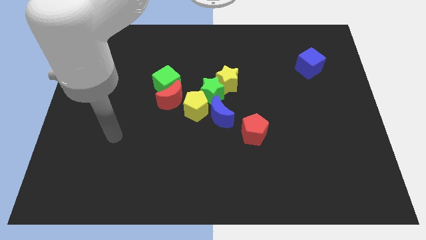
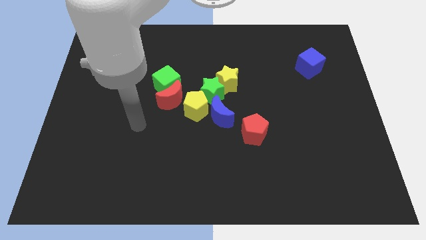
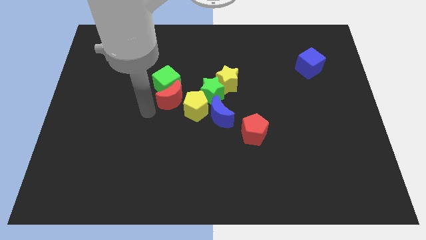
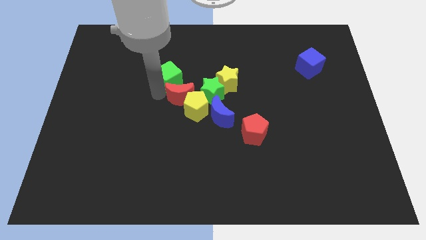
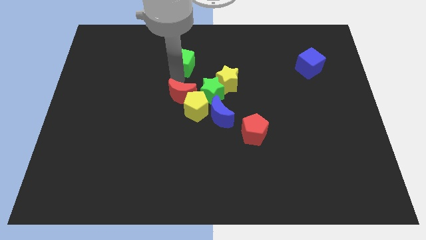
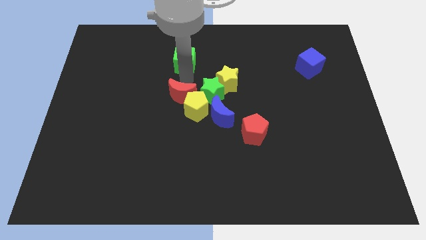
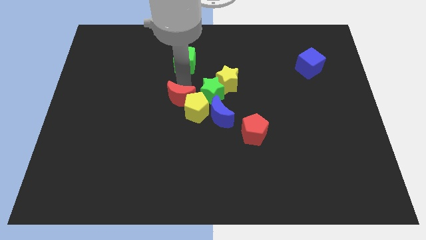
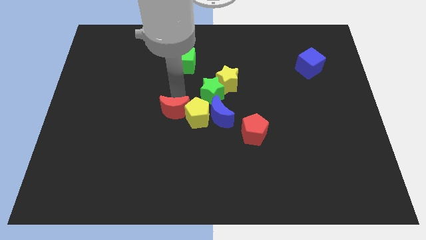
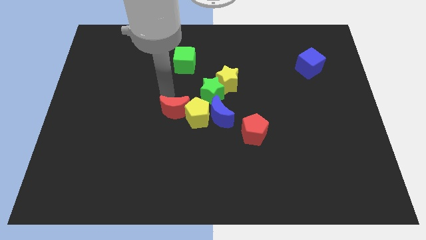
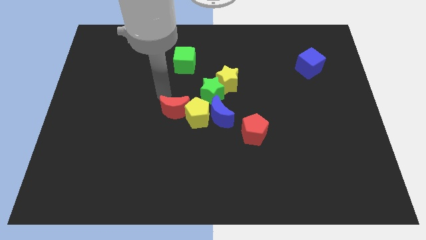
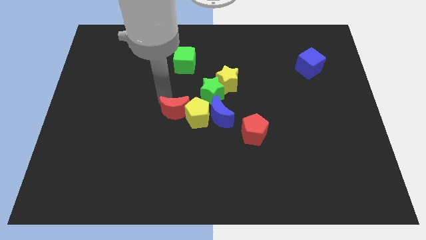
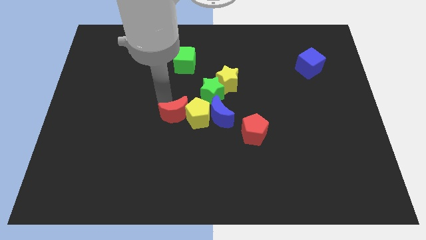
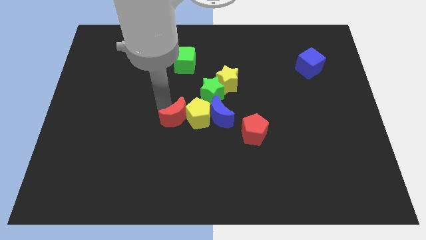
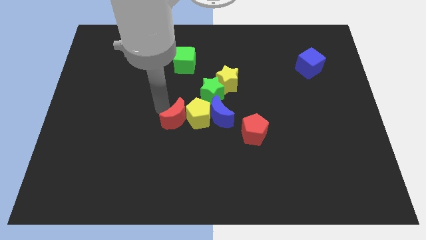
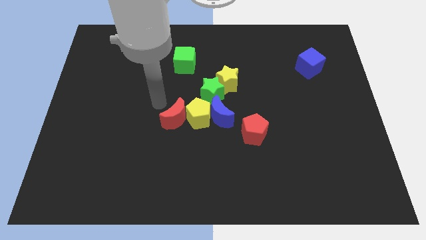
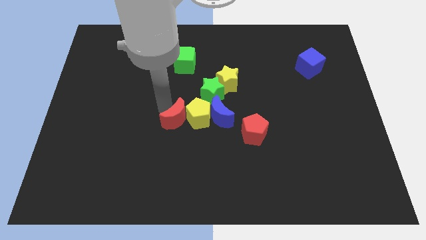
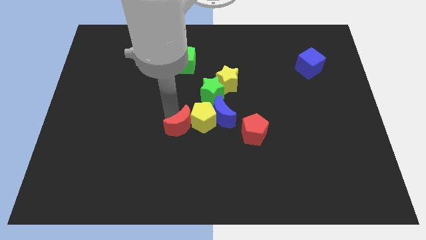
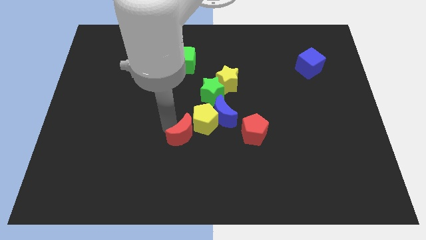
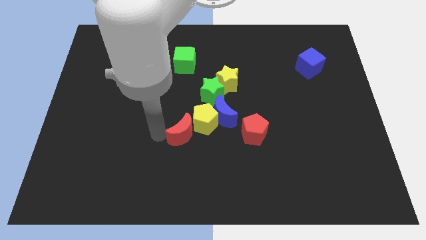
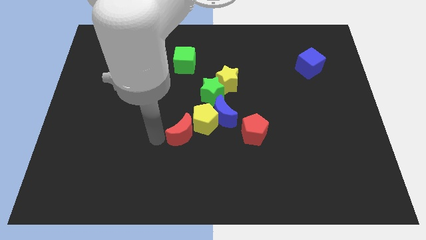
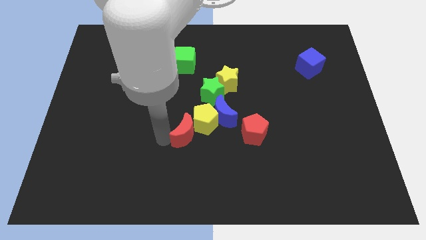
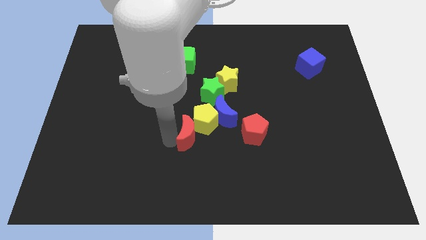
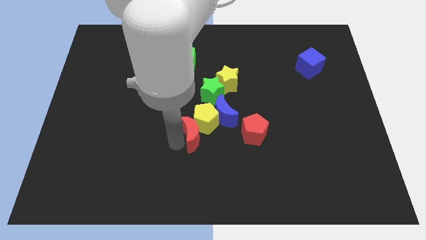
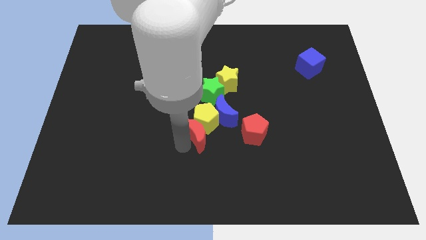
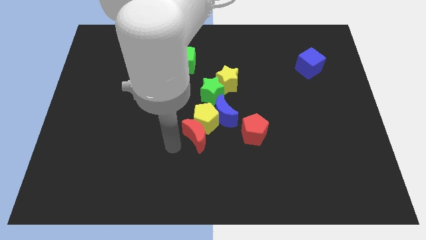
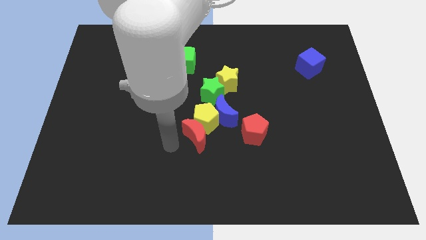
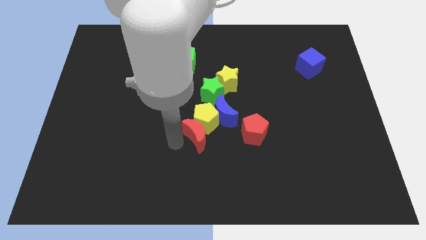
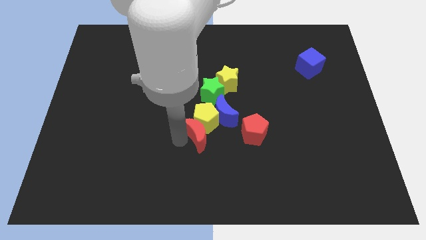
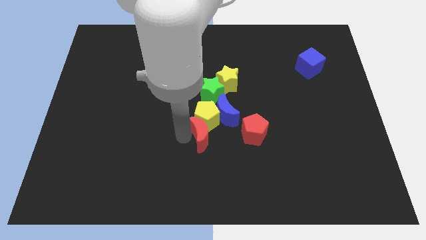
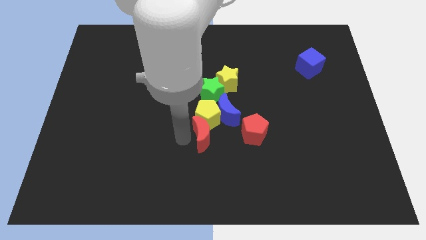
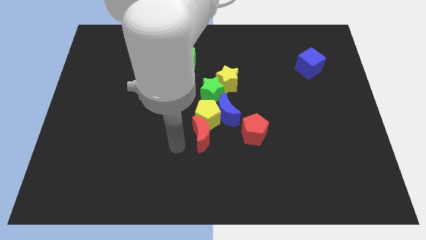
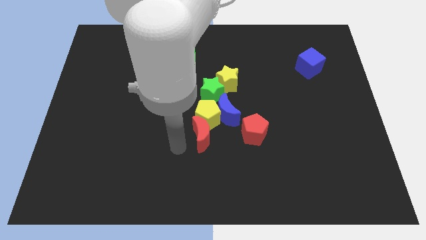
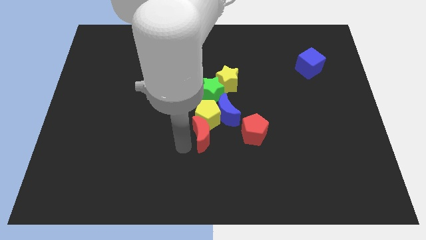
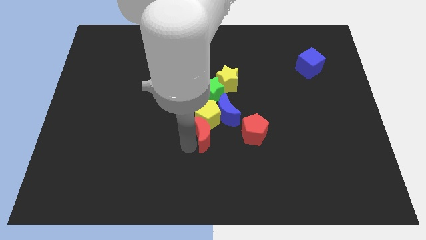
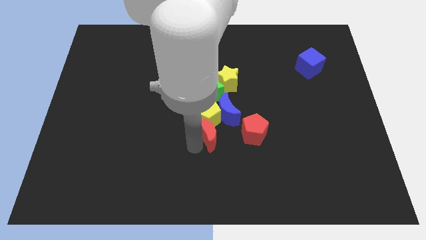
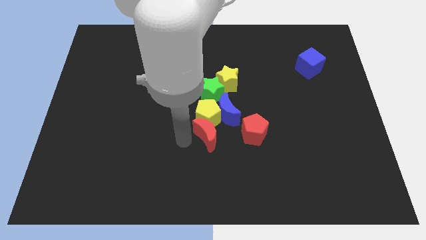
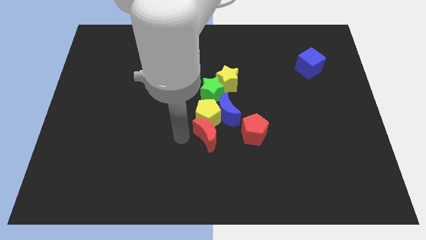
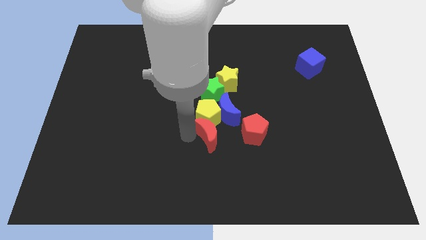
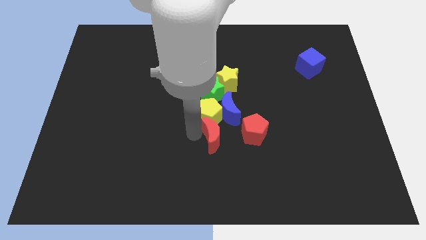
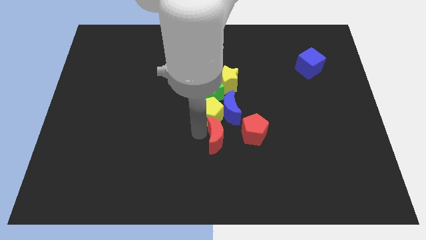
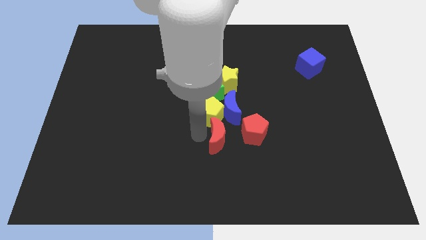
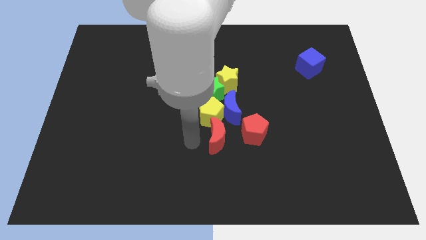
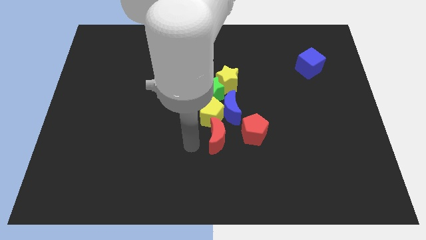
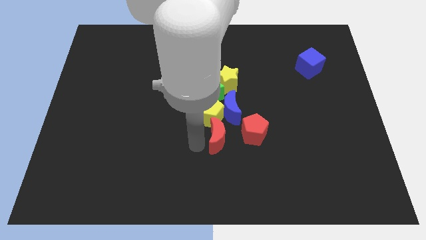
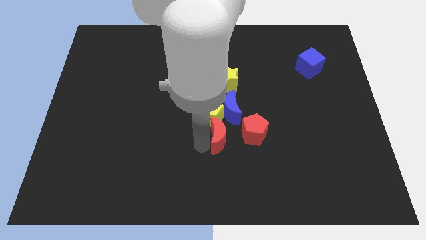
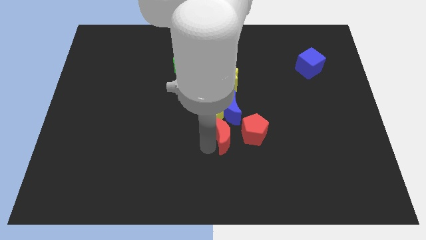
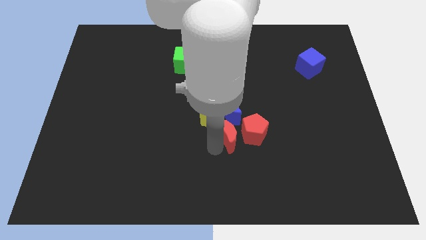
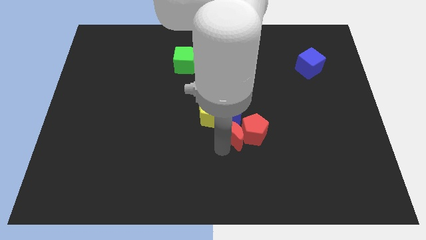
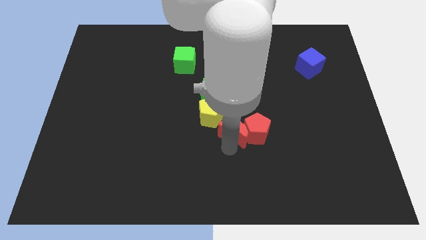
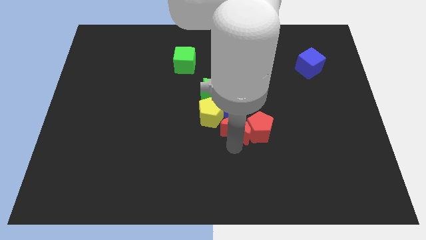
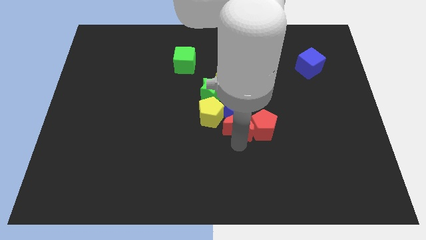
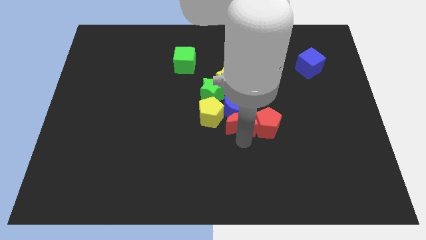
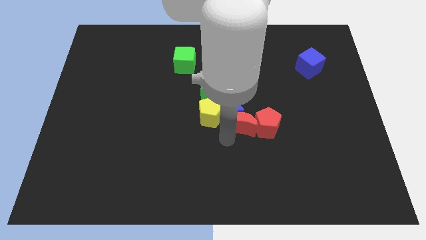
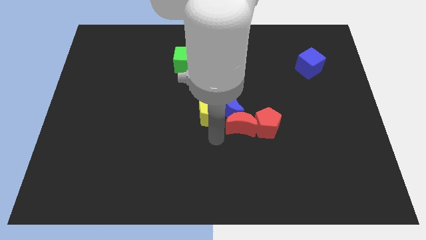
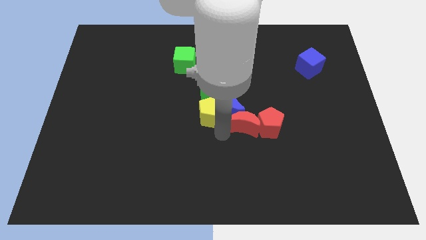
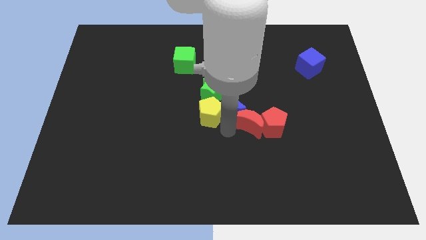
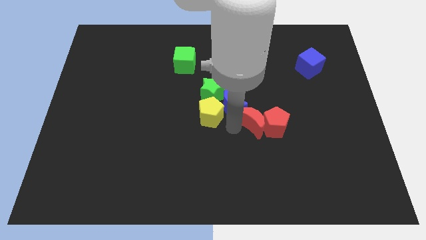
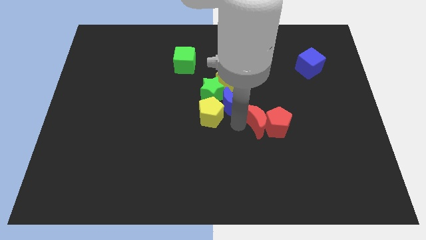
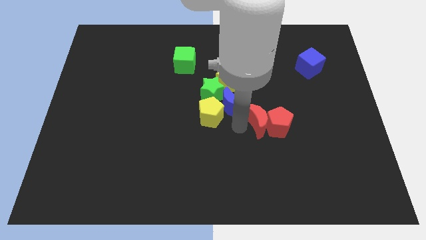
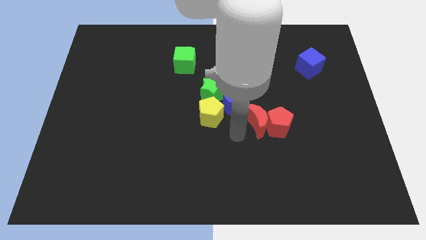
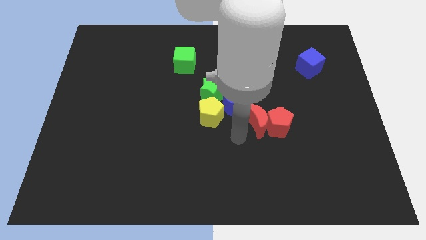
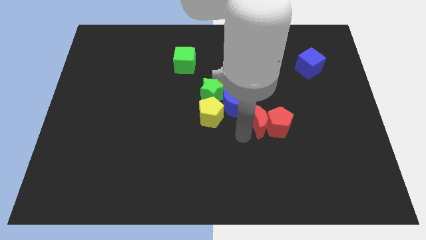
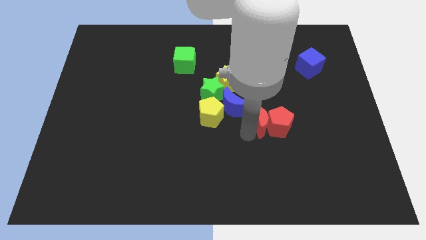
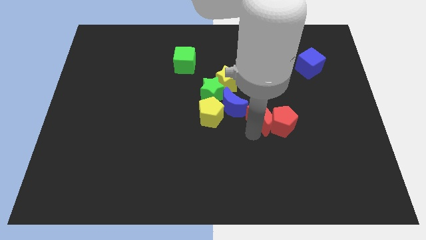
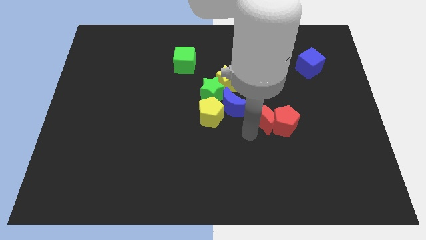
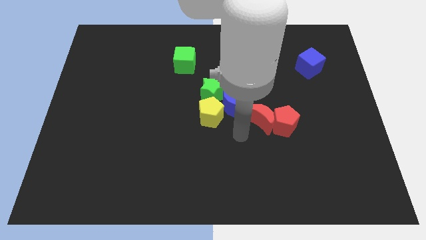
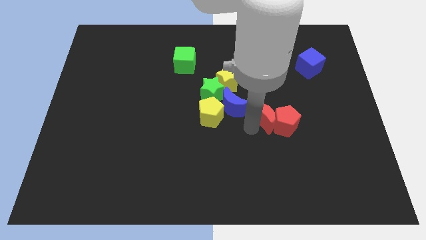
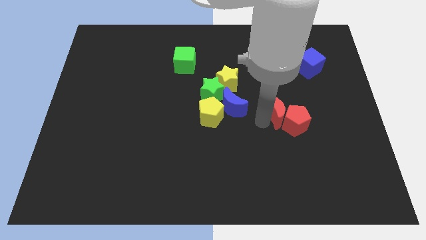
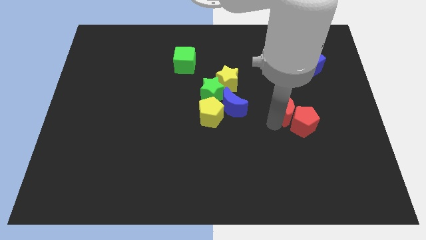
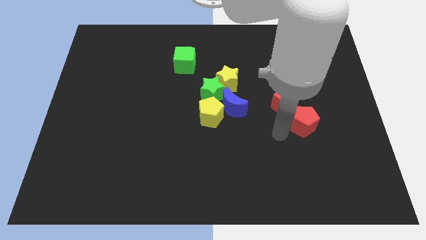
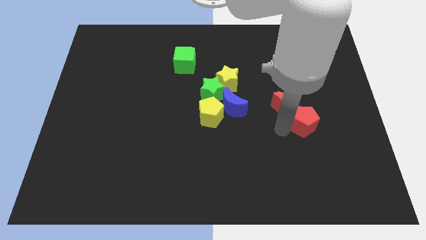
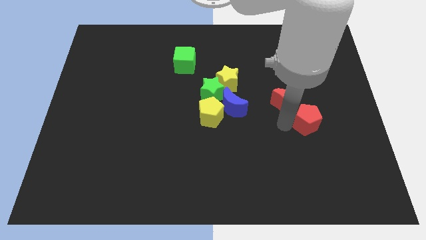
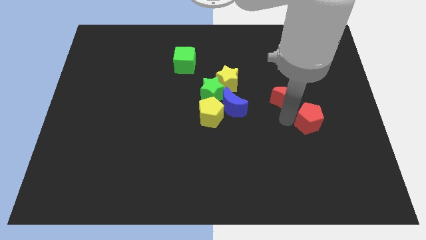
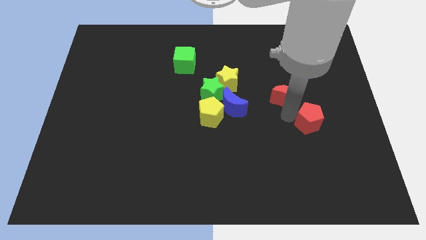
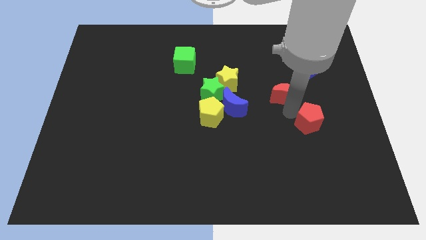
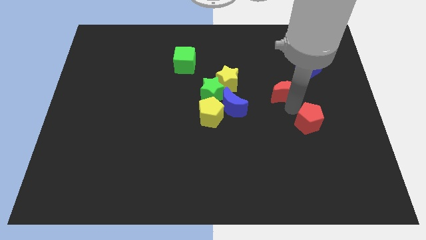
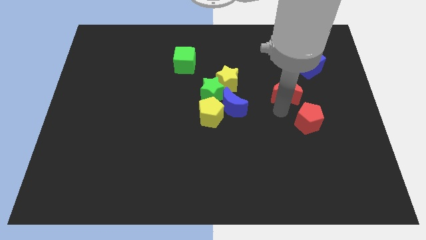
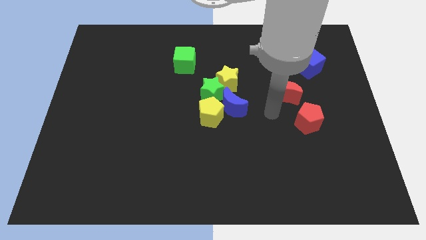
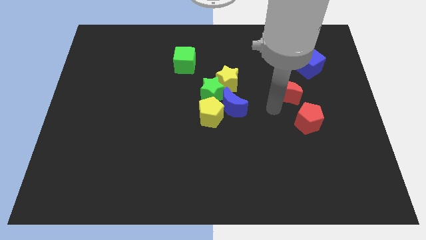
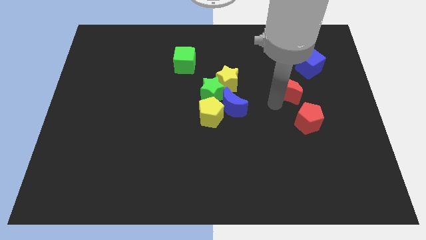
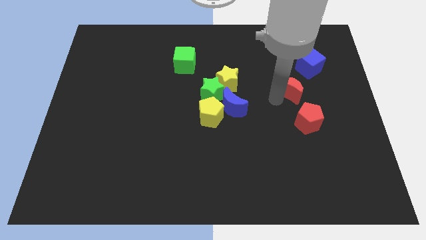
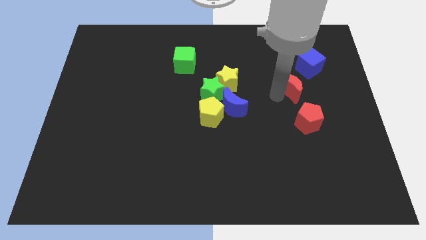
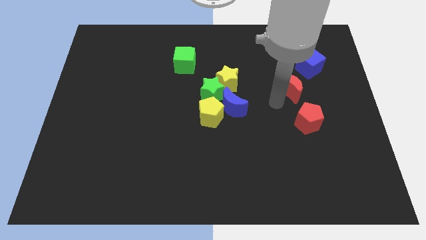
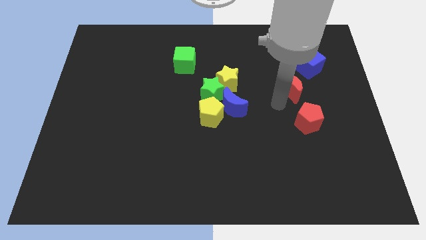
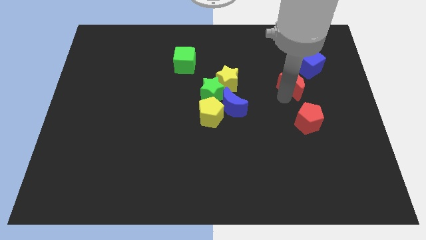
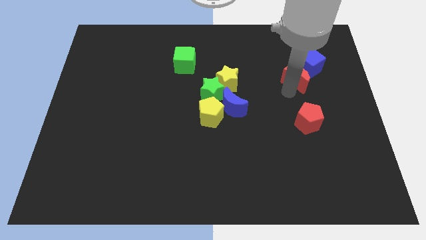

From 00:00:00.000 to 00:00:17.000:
move the red moon to the blue cube
